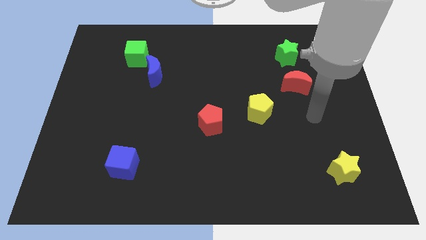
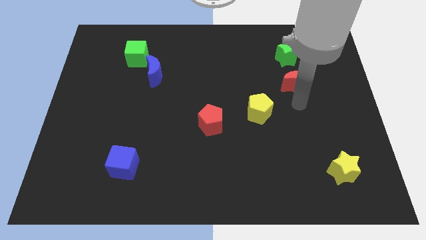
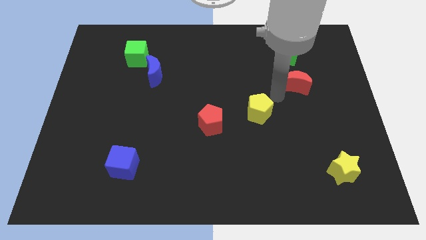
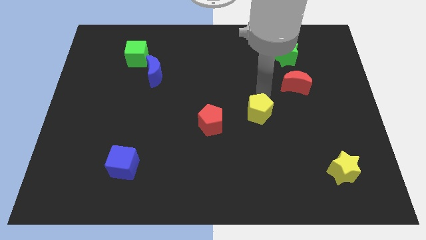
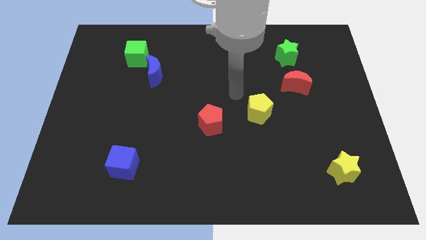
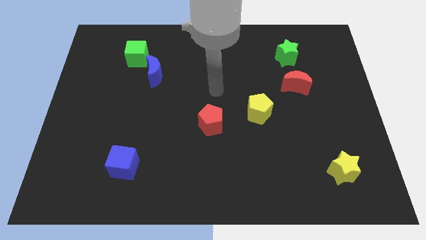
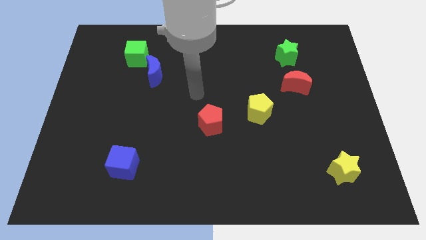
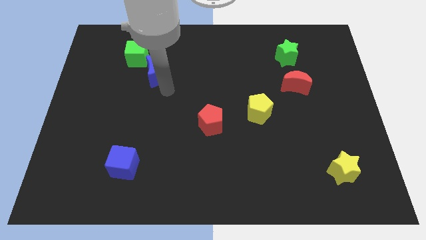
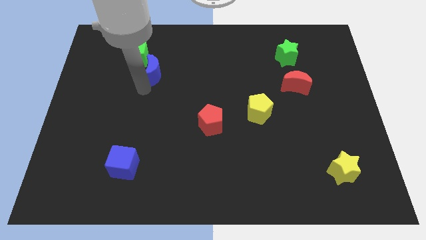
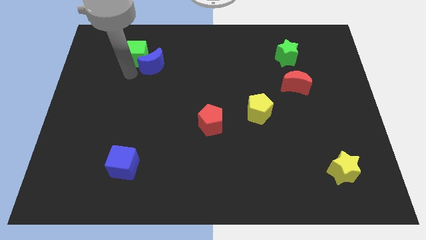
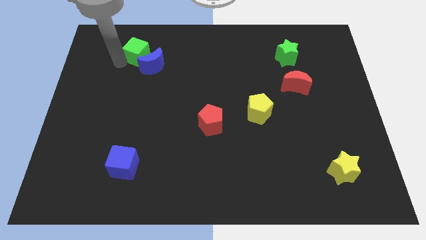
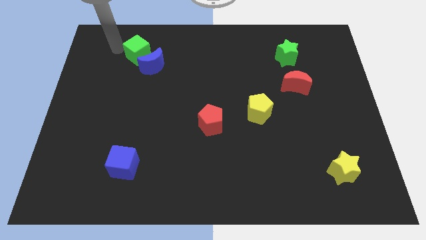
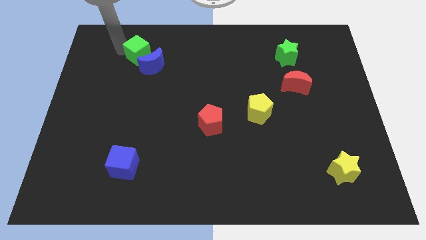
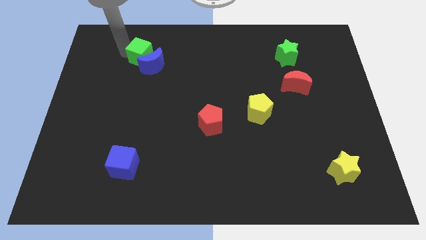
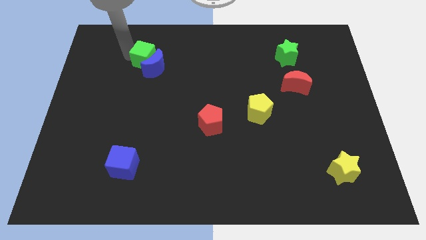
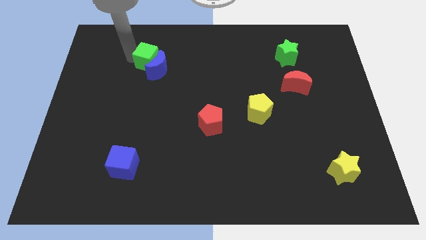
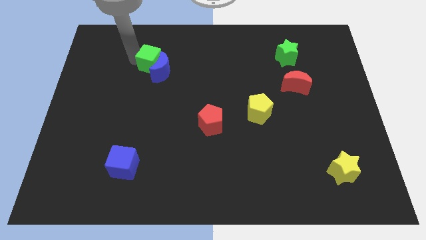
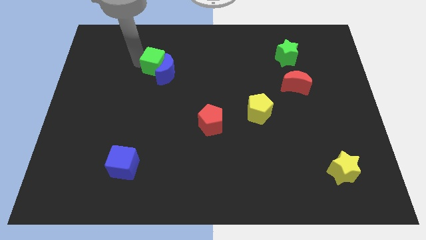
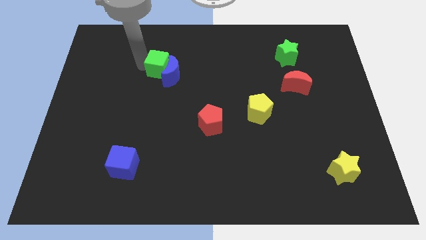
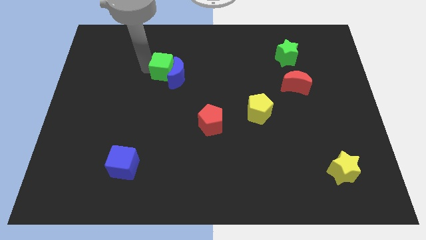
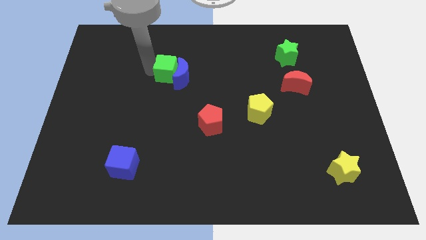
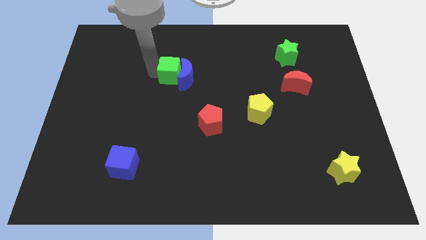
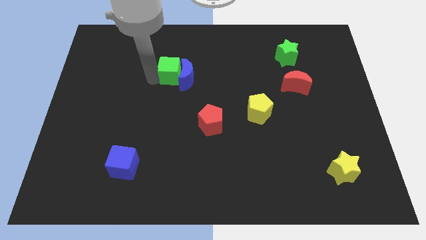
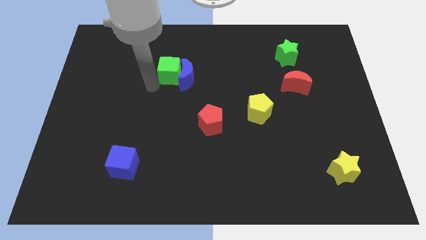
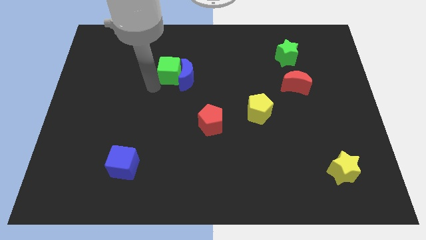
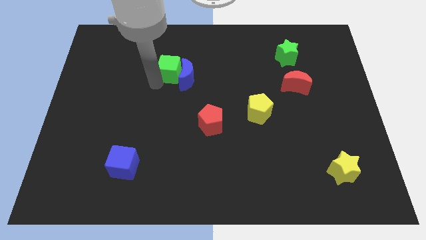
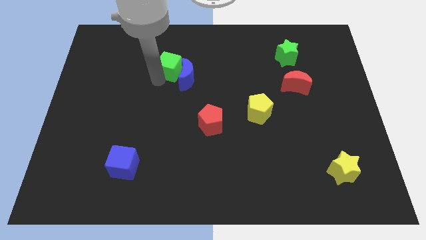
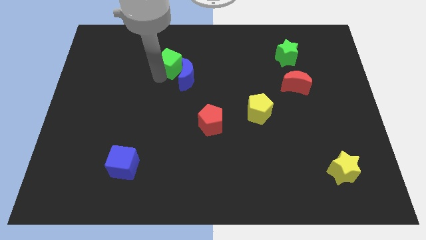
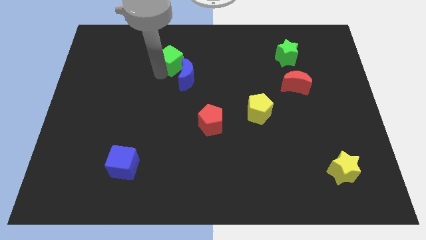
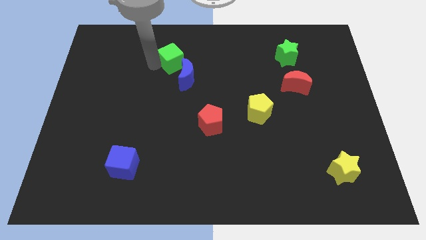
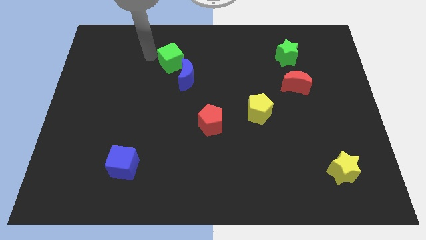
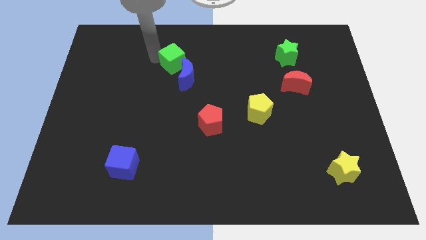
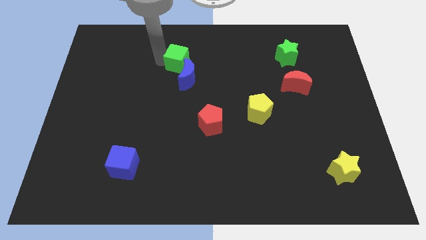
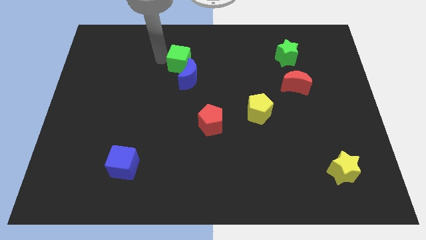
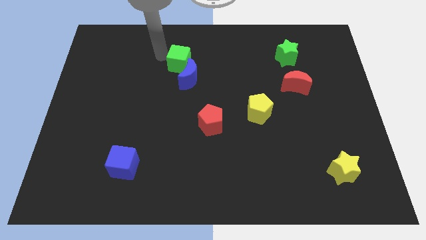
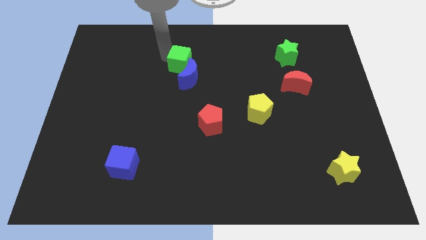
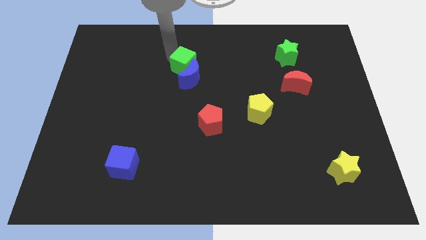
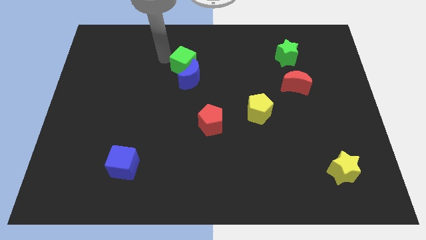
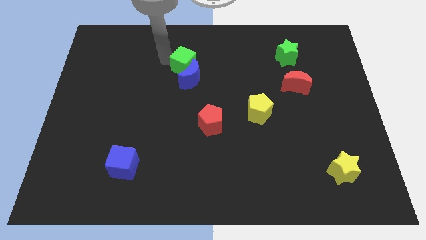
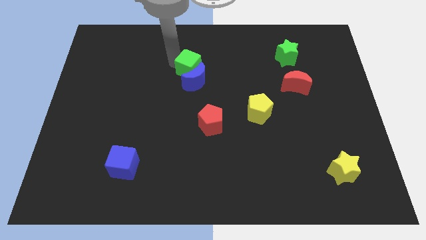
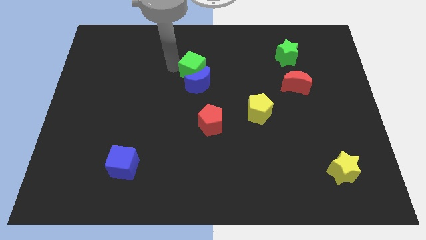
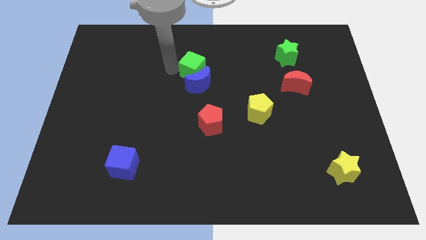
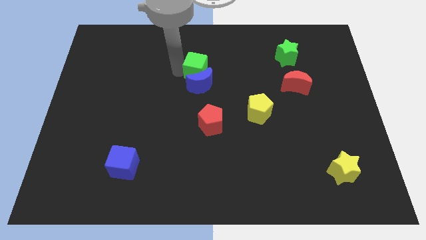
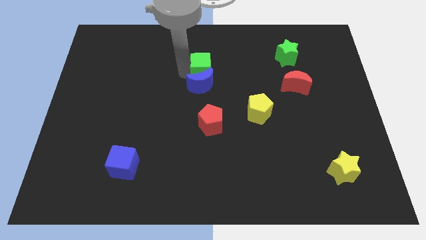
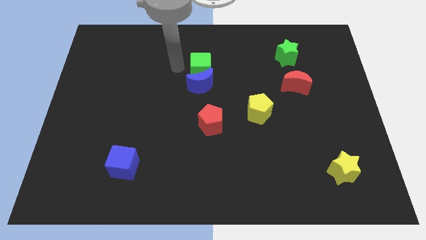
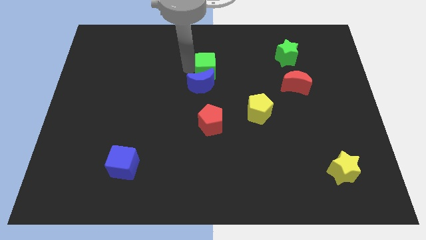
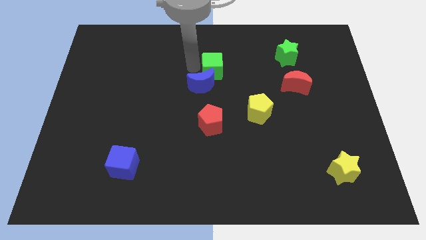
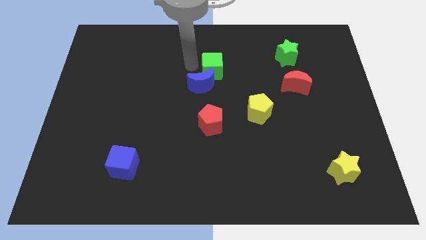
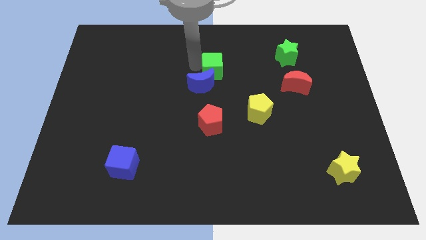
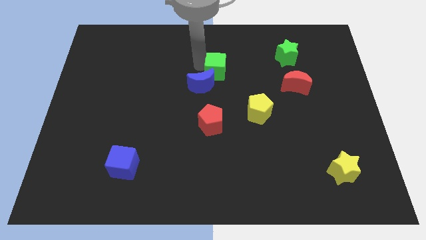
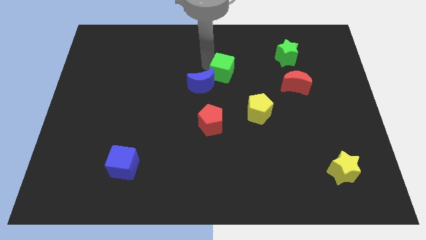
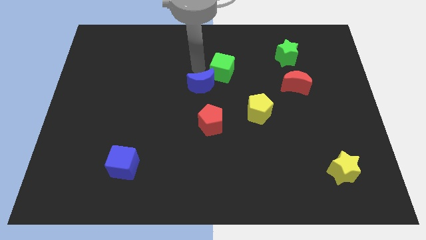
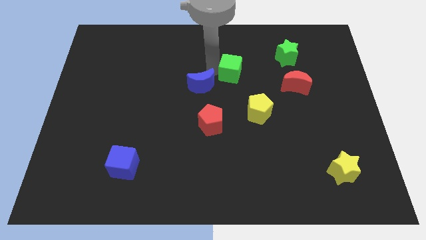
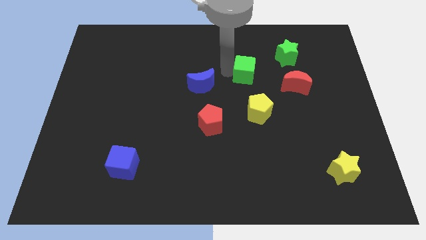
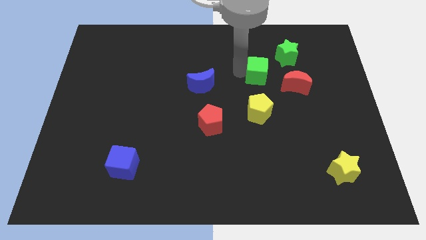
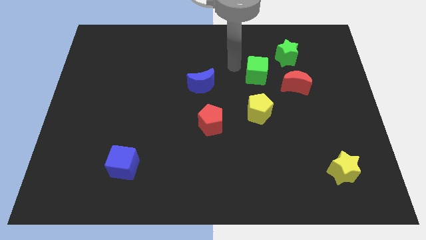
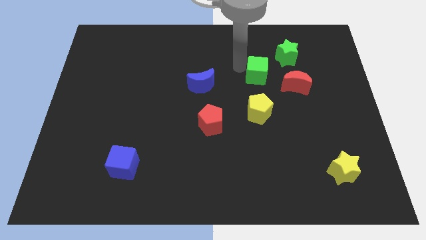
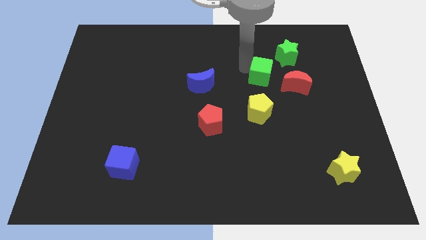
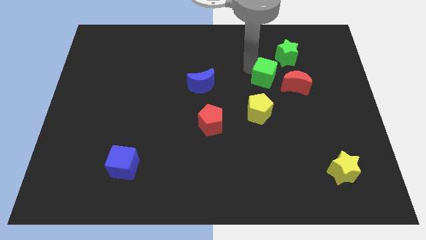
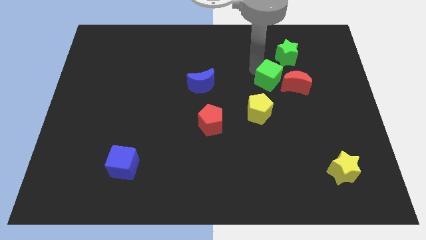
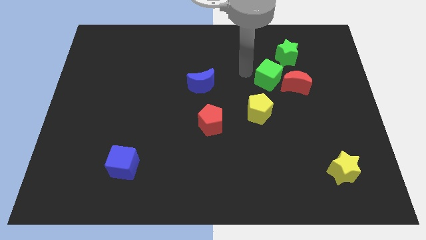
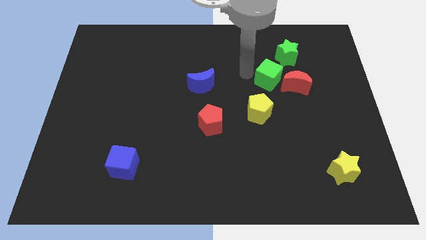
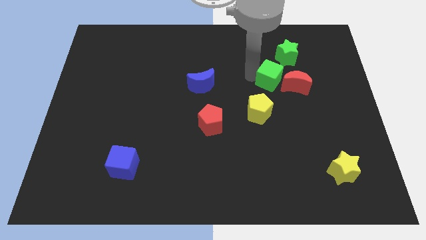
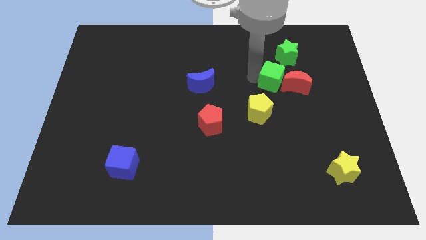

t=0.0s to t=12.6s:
push the green cube towards the red moon

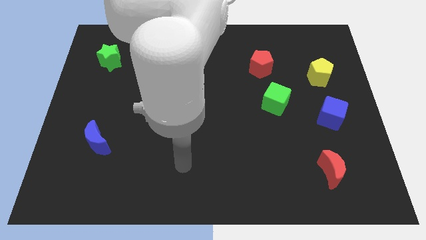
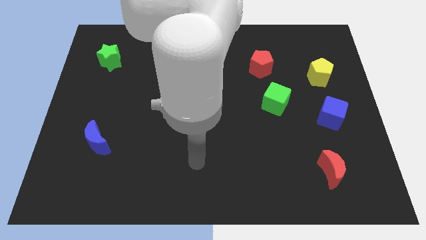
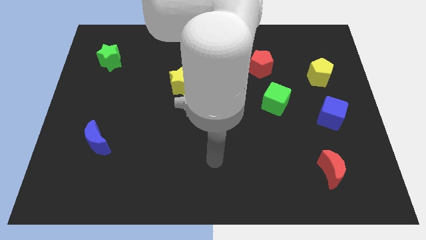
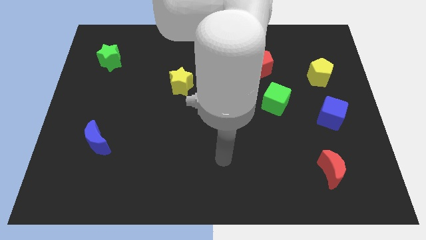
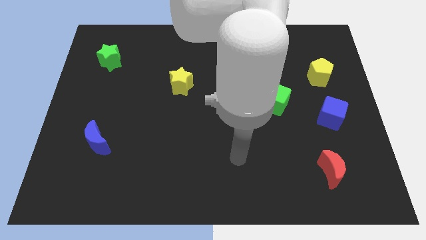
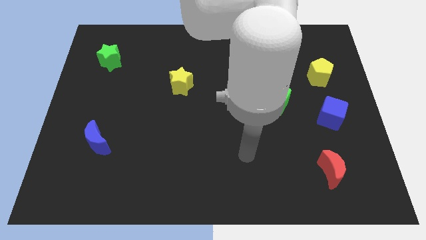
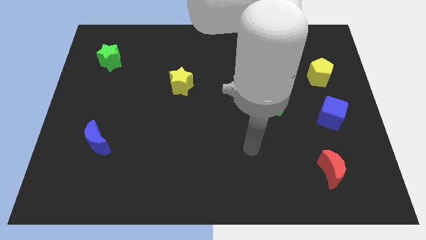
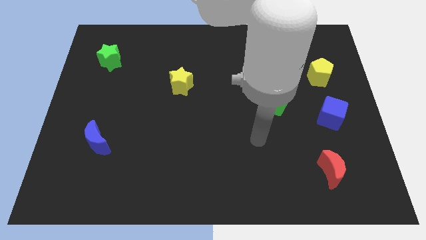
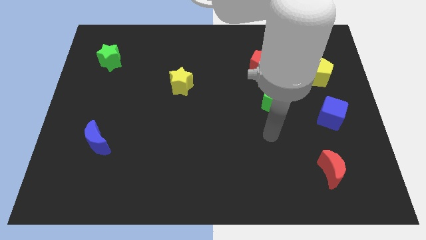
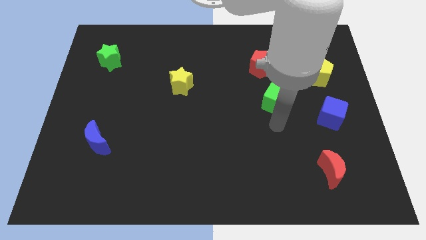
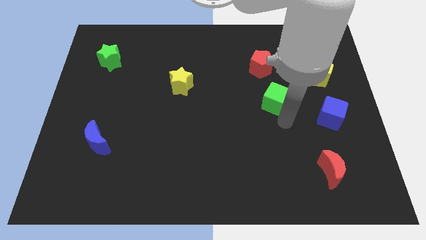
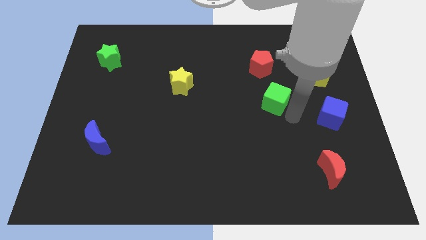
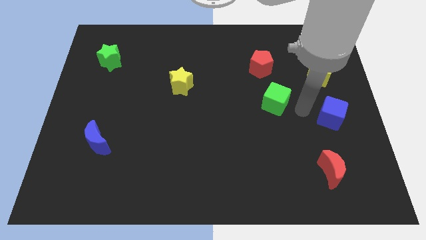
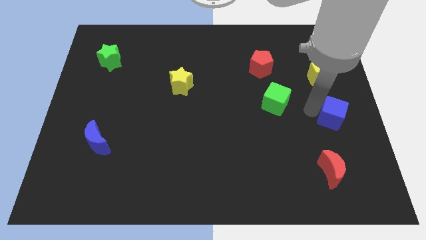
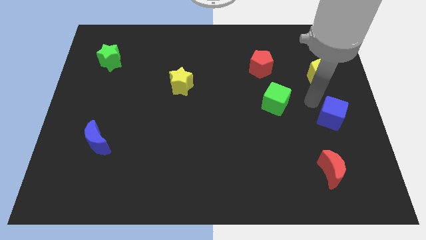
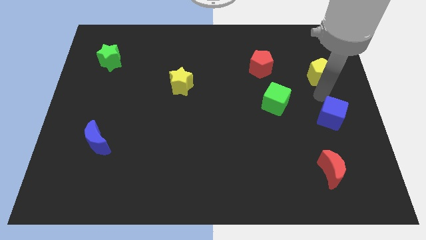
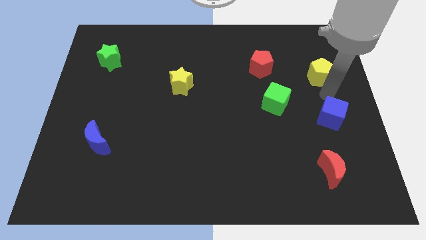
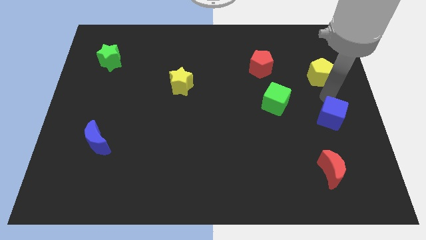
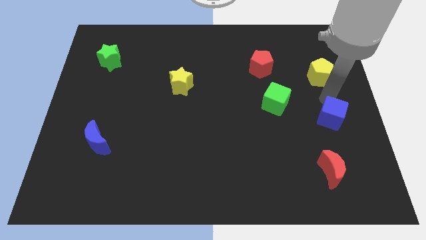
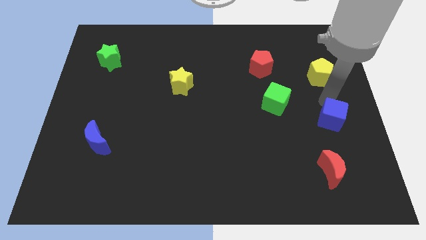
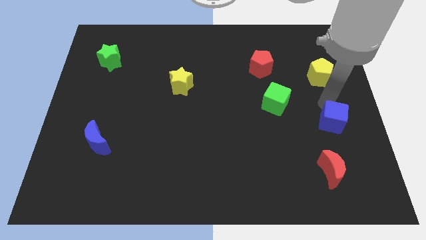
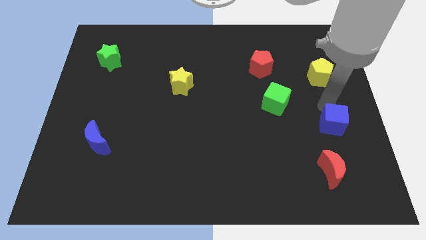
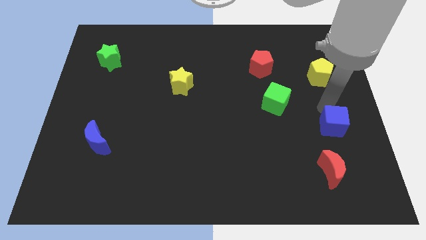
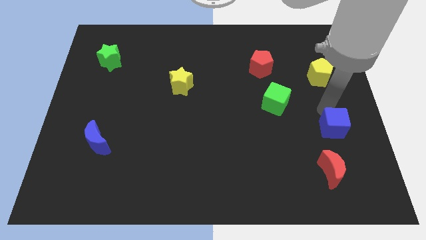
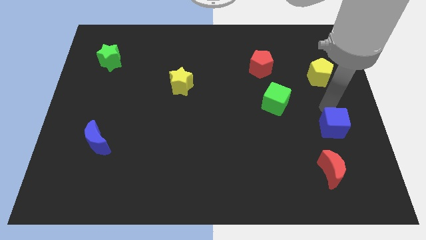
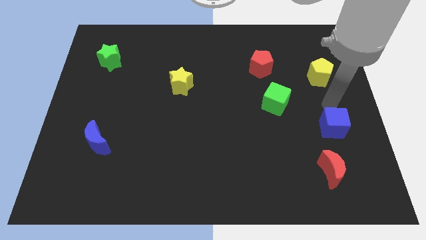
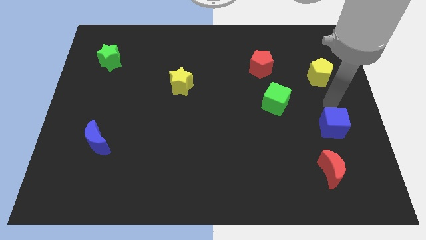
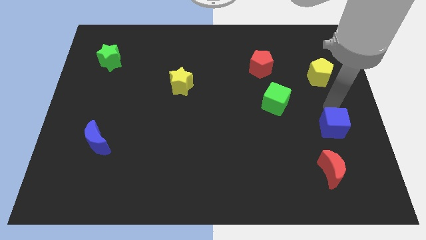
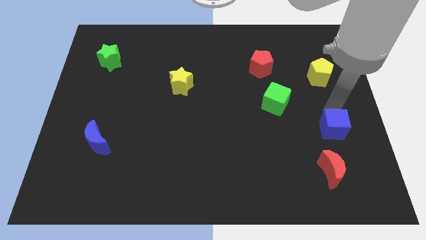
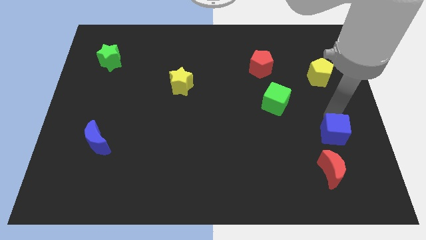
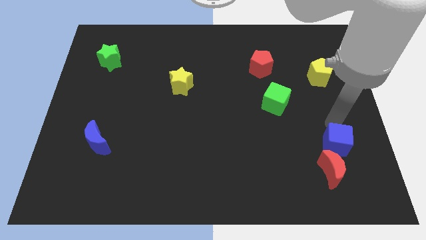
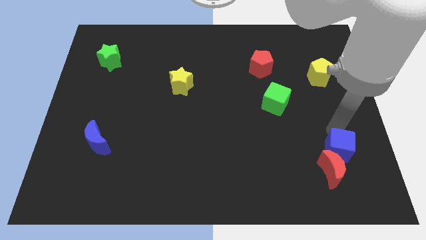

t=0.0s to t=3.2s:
move the blue cube towards the red moon
